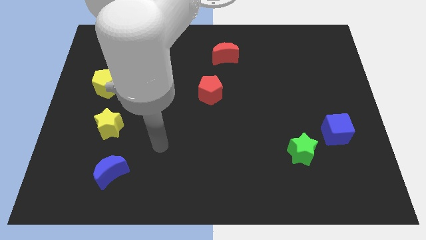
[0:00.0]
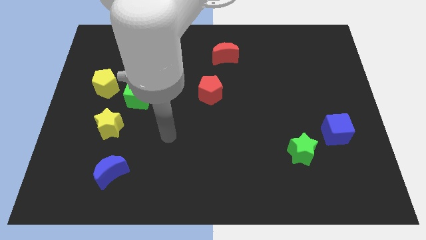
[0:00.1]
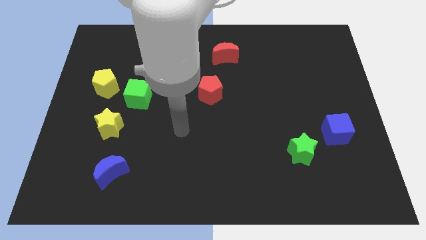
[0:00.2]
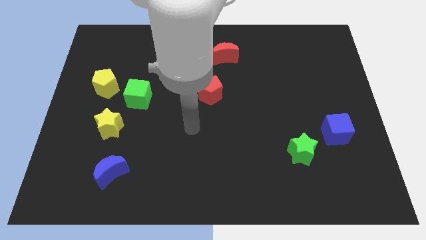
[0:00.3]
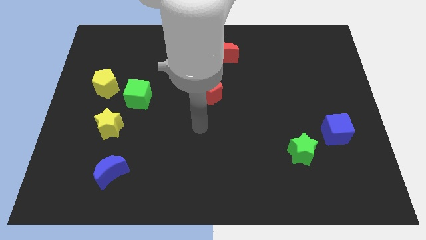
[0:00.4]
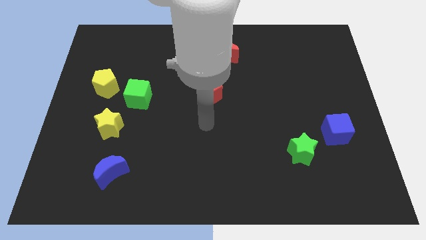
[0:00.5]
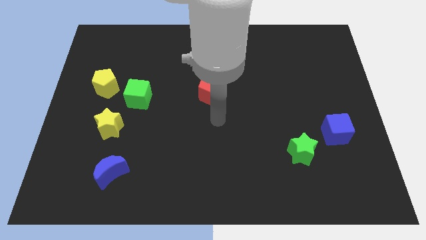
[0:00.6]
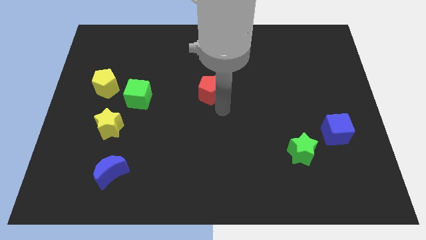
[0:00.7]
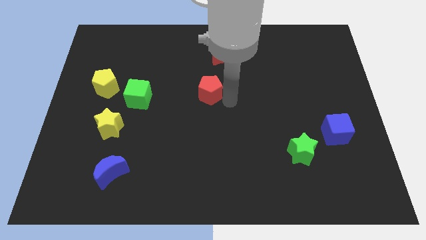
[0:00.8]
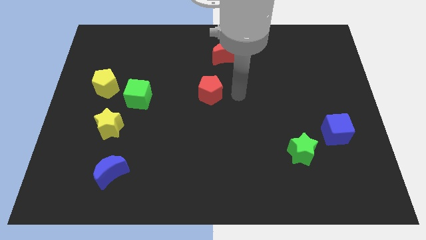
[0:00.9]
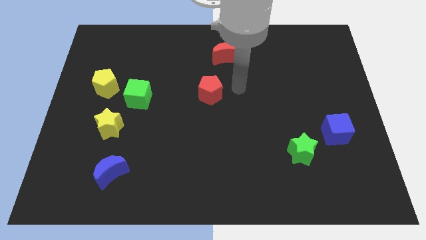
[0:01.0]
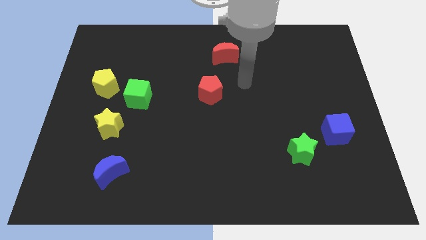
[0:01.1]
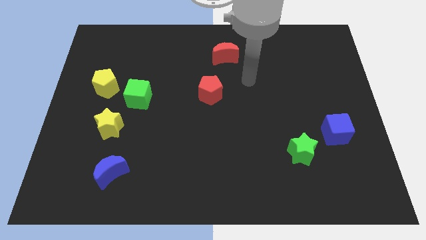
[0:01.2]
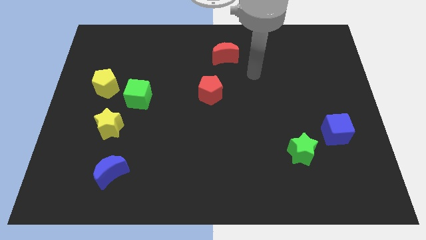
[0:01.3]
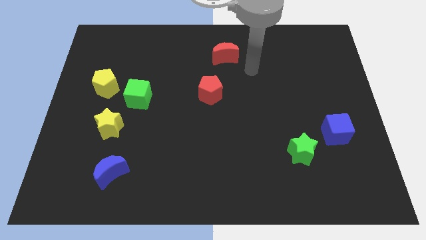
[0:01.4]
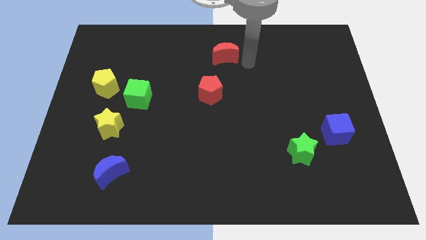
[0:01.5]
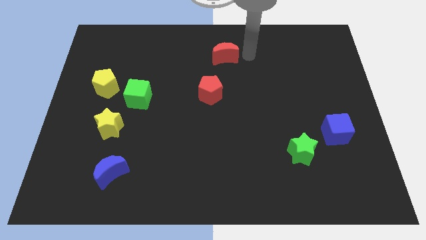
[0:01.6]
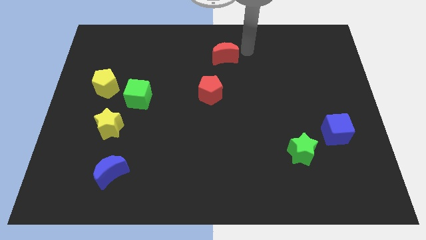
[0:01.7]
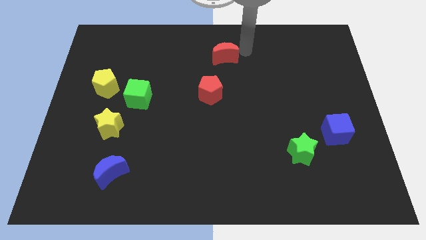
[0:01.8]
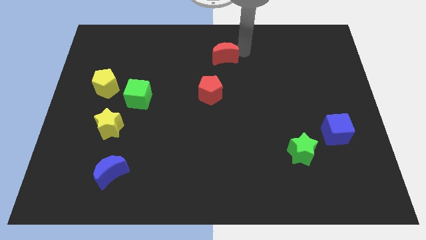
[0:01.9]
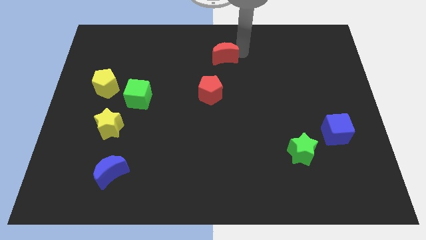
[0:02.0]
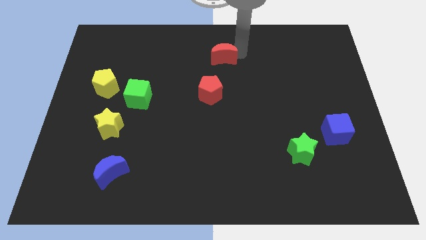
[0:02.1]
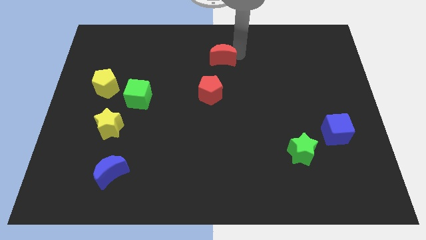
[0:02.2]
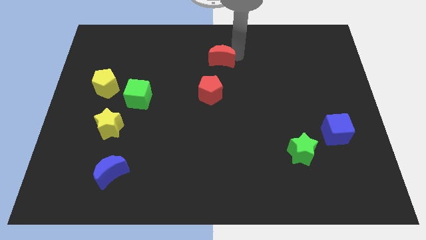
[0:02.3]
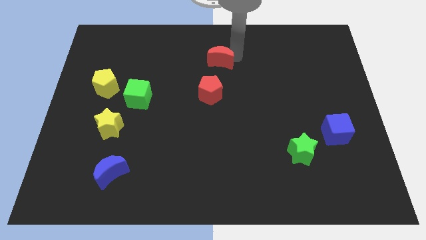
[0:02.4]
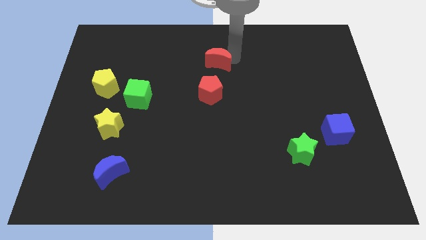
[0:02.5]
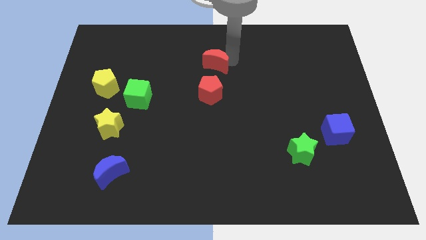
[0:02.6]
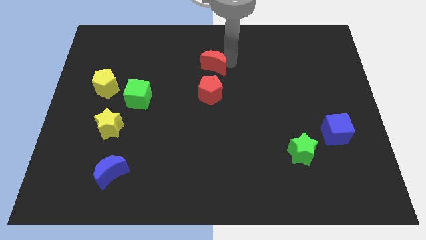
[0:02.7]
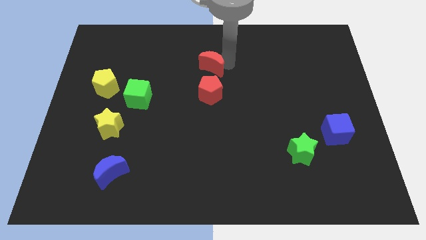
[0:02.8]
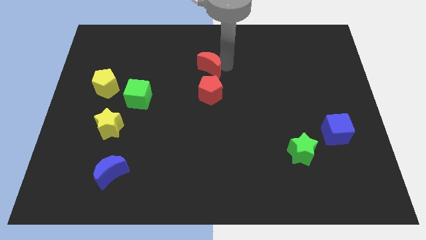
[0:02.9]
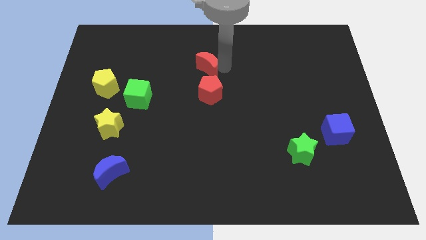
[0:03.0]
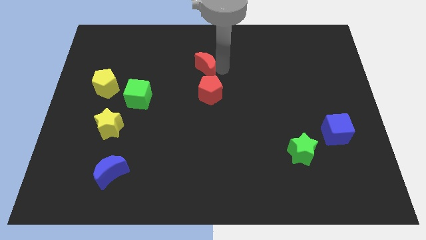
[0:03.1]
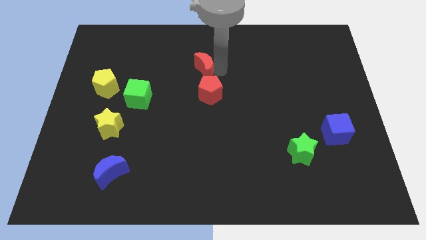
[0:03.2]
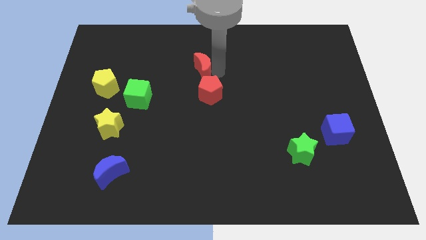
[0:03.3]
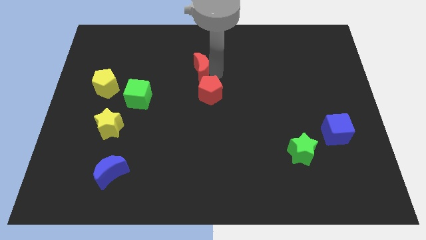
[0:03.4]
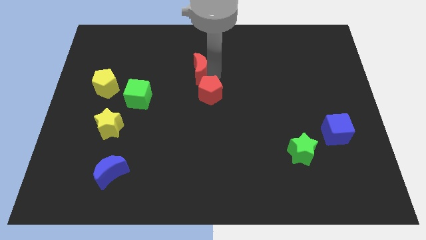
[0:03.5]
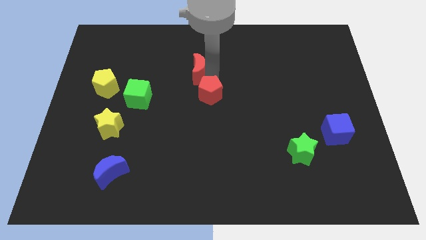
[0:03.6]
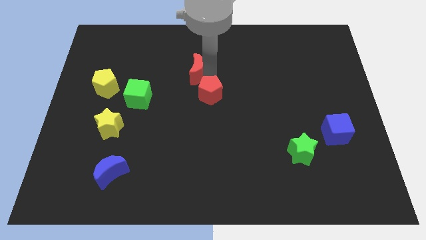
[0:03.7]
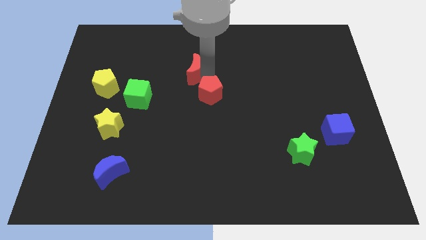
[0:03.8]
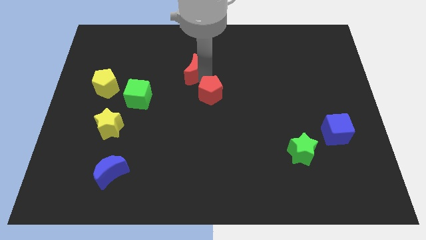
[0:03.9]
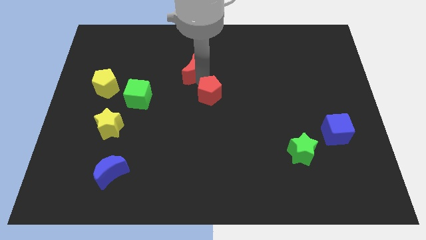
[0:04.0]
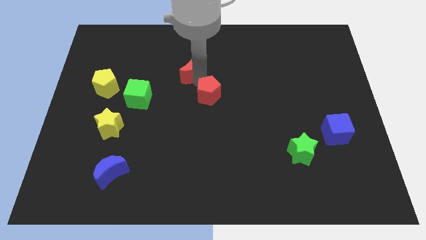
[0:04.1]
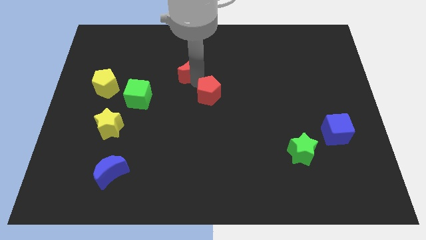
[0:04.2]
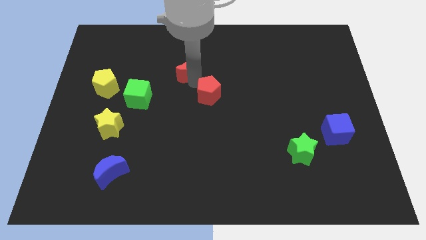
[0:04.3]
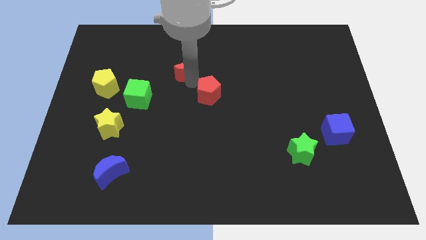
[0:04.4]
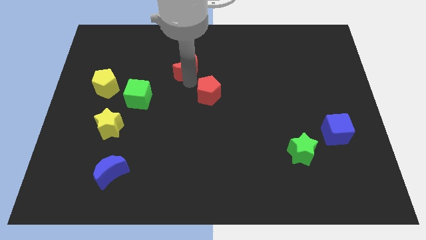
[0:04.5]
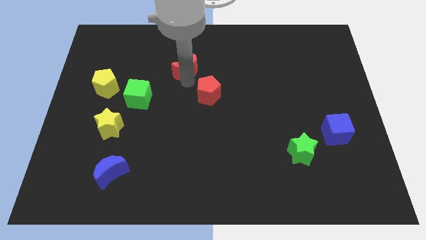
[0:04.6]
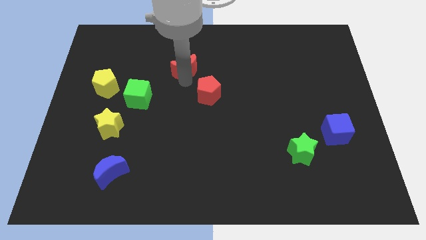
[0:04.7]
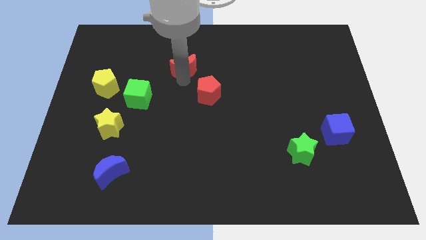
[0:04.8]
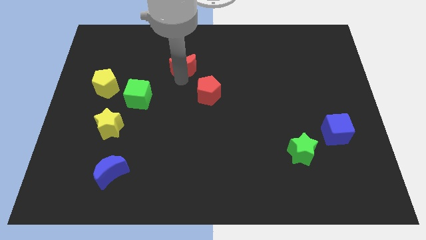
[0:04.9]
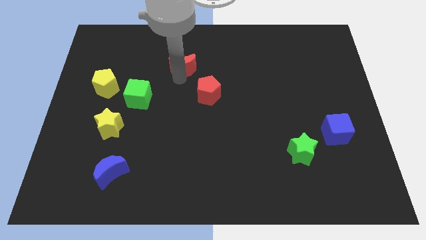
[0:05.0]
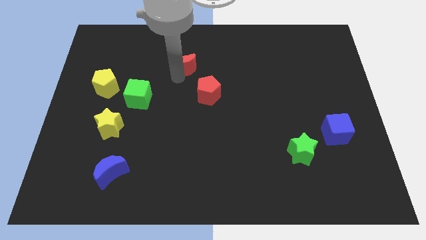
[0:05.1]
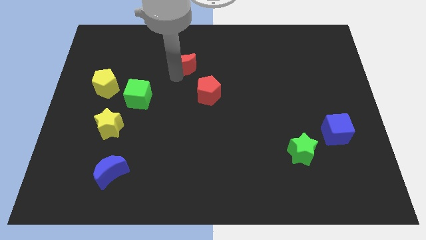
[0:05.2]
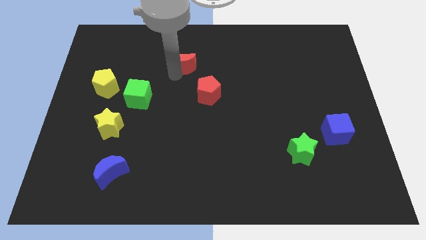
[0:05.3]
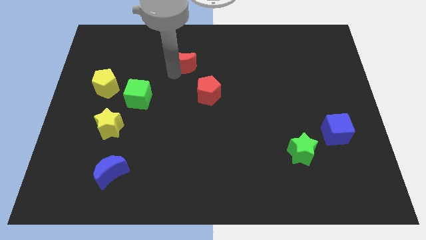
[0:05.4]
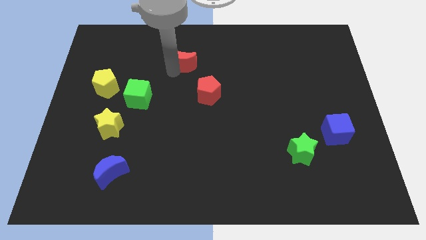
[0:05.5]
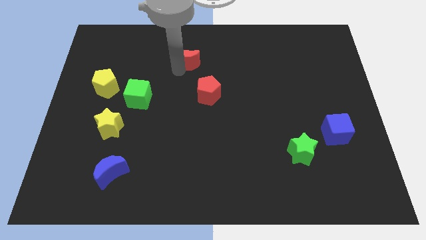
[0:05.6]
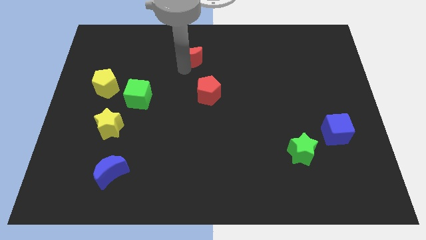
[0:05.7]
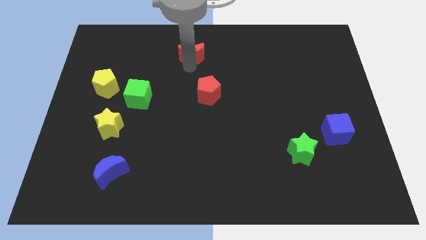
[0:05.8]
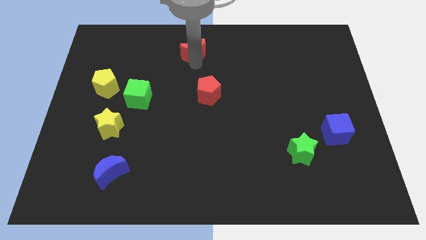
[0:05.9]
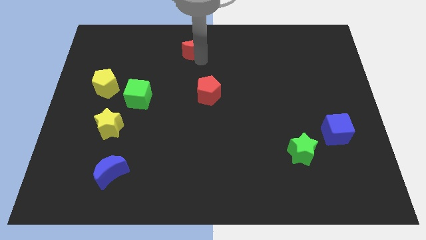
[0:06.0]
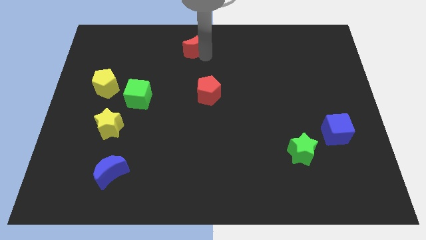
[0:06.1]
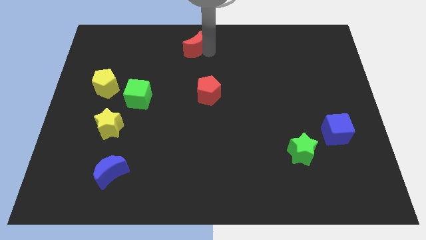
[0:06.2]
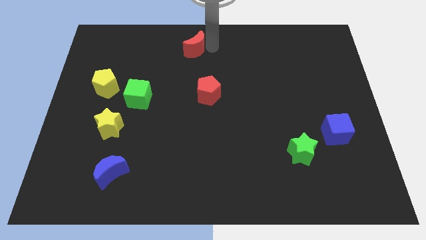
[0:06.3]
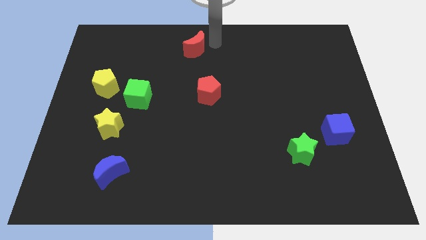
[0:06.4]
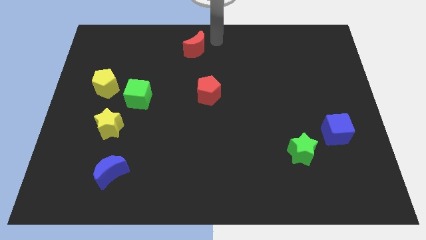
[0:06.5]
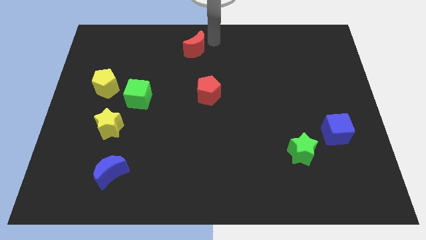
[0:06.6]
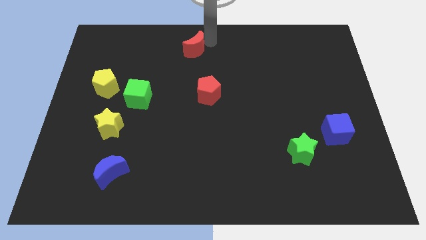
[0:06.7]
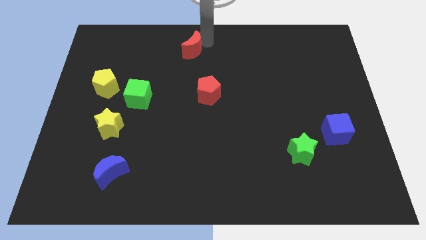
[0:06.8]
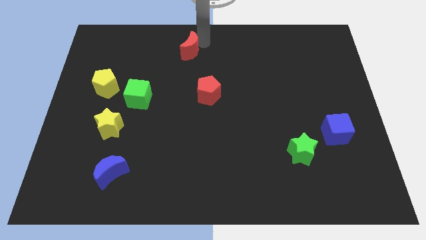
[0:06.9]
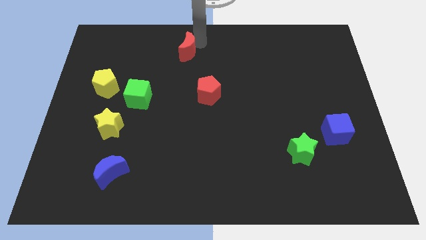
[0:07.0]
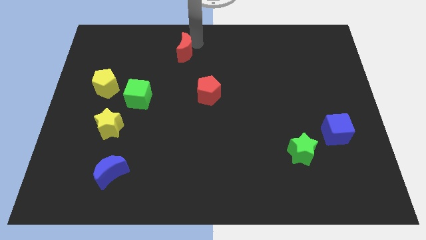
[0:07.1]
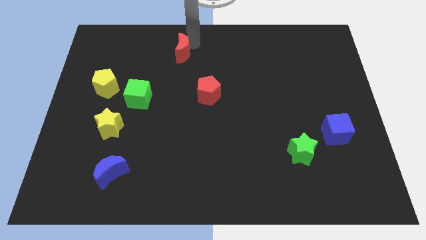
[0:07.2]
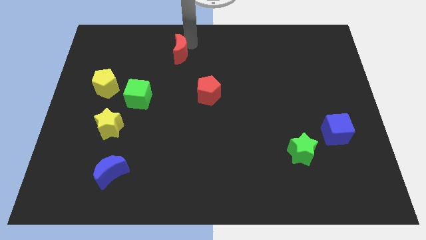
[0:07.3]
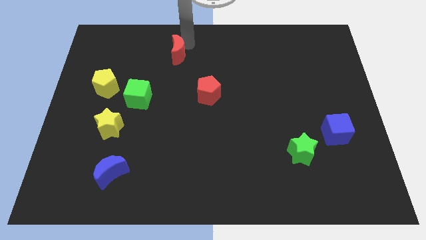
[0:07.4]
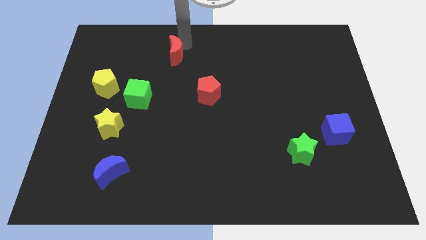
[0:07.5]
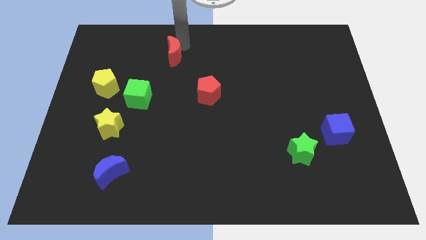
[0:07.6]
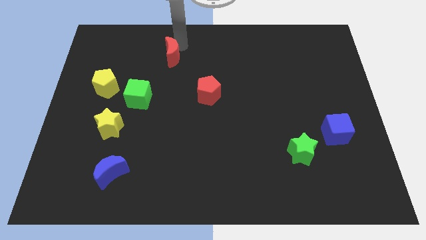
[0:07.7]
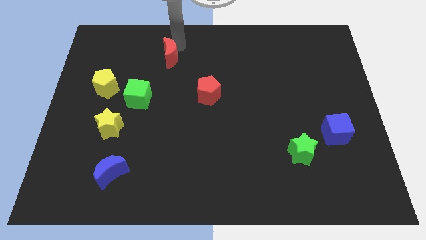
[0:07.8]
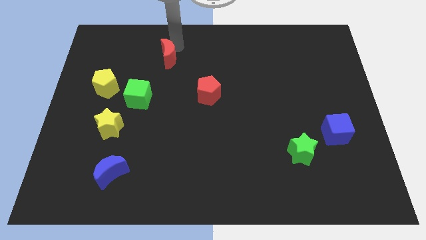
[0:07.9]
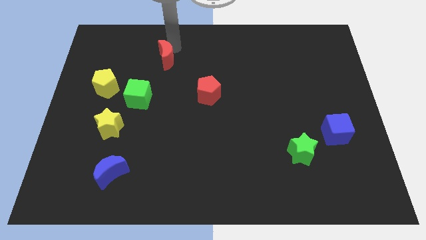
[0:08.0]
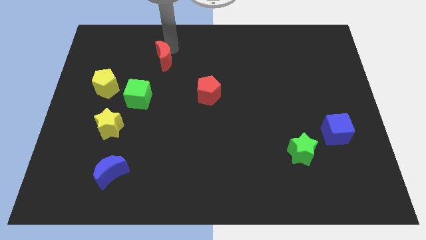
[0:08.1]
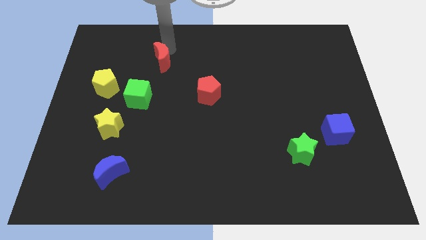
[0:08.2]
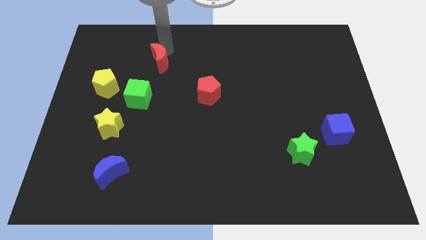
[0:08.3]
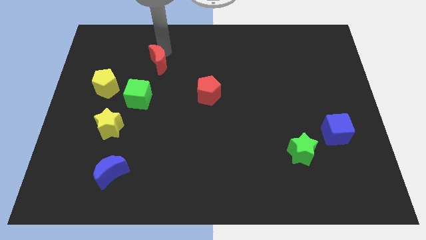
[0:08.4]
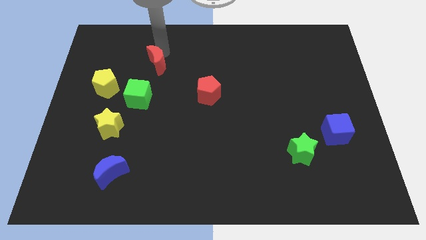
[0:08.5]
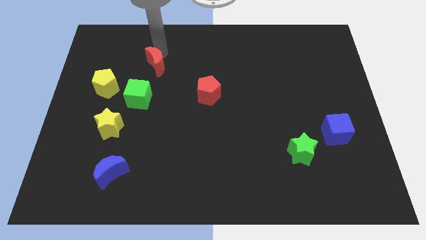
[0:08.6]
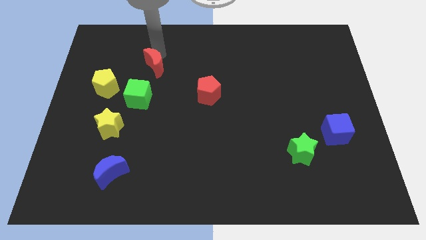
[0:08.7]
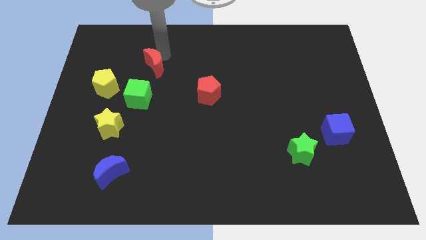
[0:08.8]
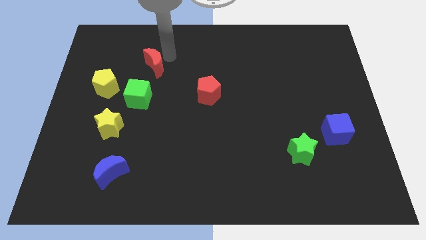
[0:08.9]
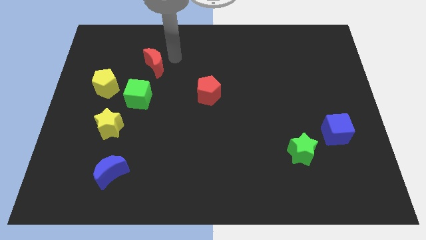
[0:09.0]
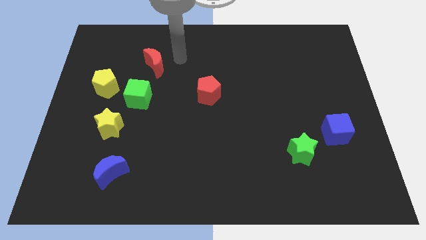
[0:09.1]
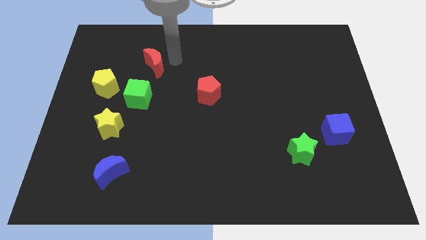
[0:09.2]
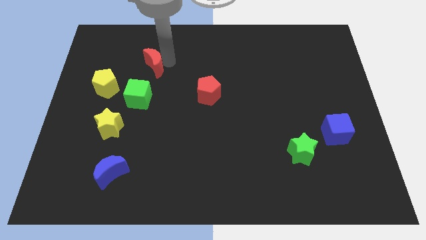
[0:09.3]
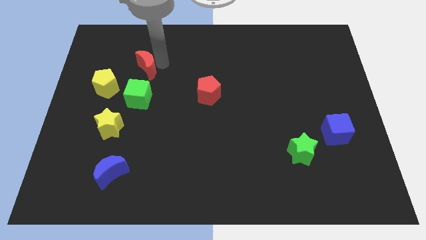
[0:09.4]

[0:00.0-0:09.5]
push the red moon to the top right of the yellow pentagon
